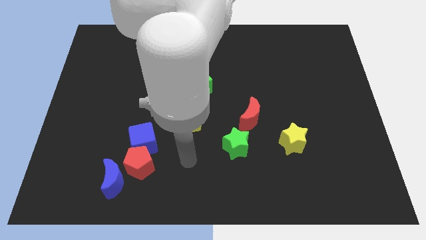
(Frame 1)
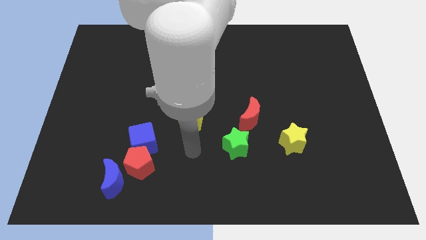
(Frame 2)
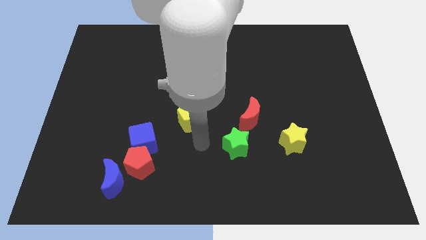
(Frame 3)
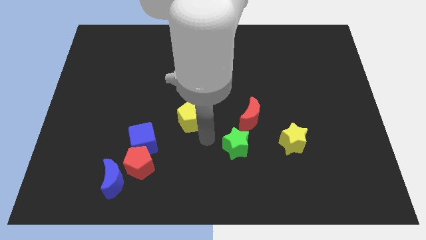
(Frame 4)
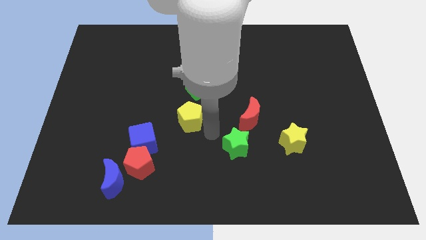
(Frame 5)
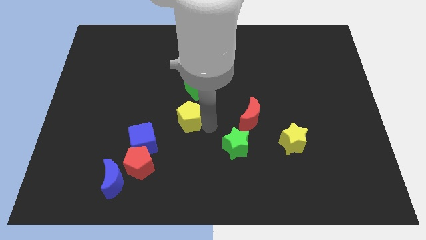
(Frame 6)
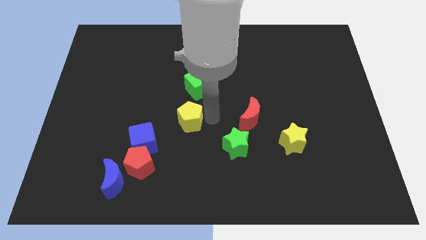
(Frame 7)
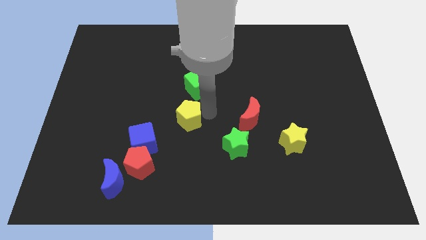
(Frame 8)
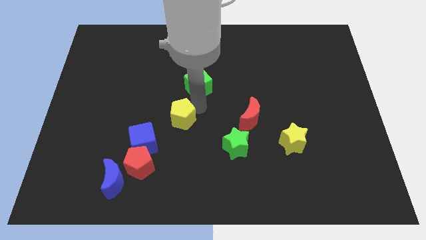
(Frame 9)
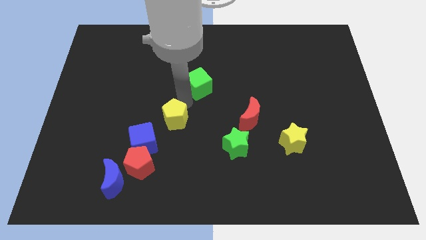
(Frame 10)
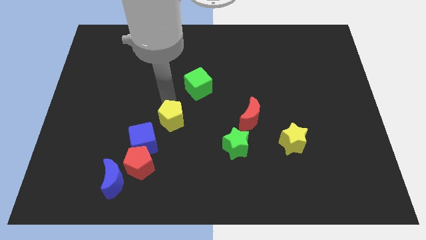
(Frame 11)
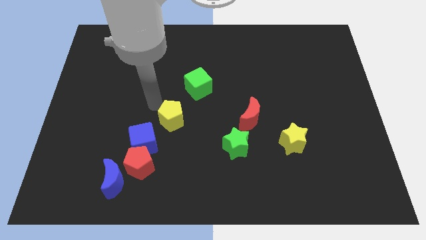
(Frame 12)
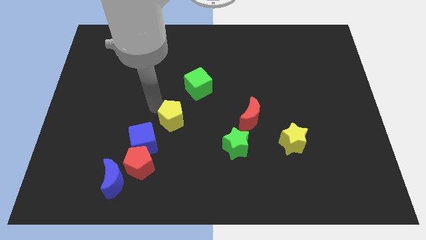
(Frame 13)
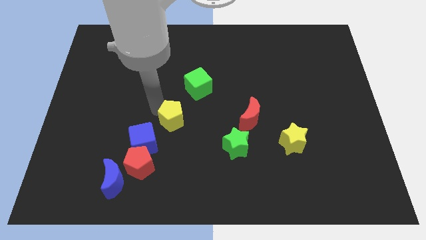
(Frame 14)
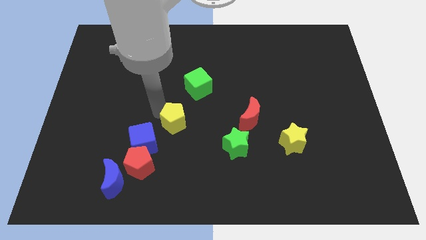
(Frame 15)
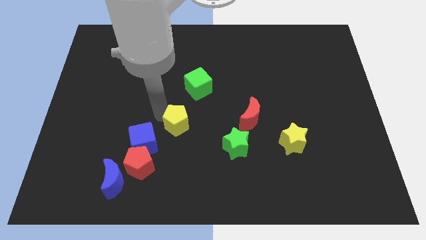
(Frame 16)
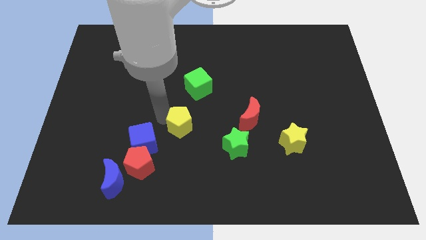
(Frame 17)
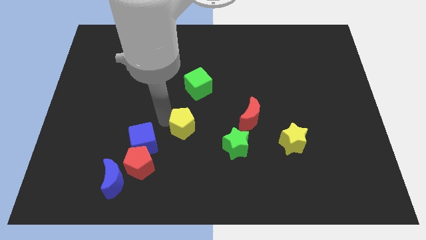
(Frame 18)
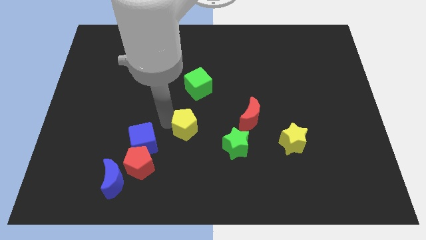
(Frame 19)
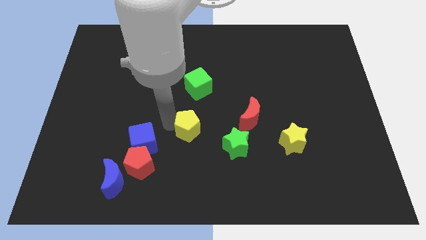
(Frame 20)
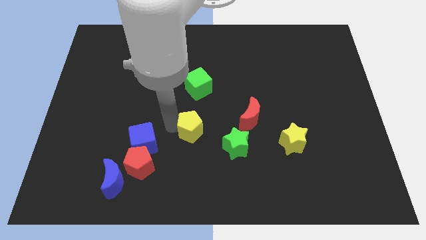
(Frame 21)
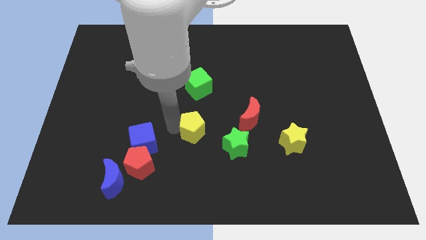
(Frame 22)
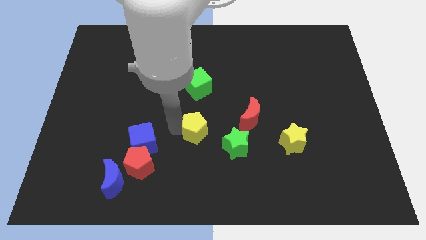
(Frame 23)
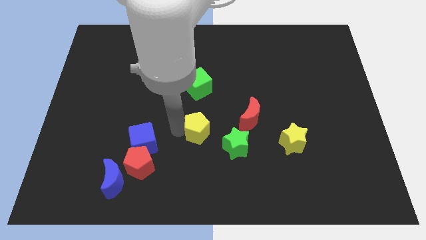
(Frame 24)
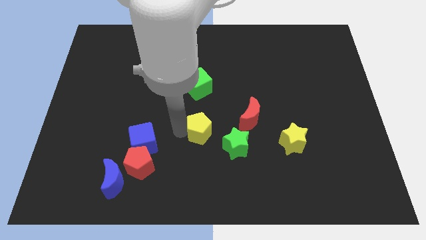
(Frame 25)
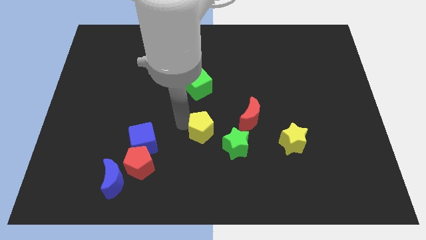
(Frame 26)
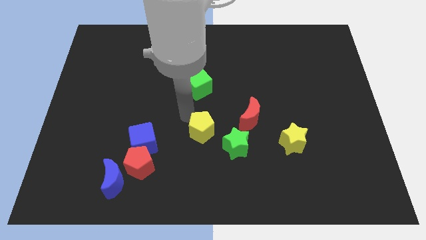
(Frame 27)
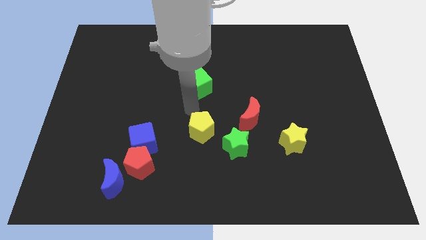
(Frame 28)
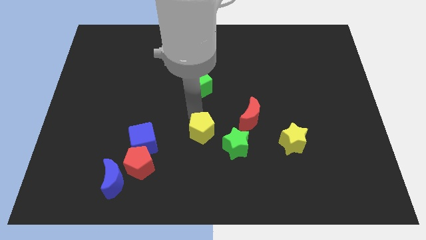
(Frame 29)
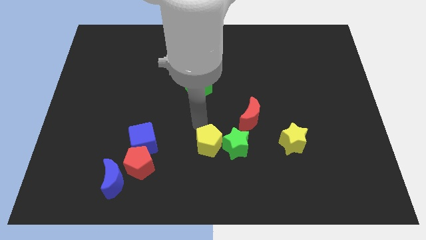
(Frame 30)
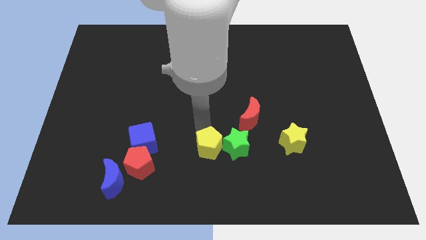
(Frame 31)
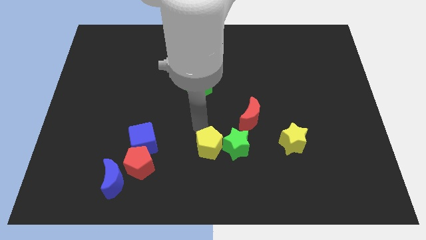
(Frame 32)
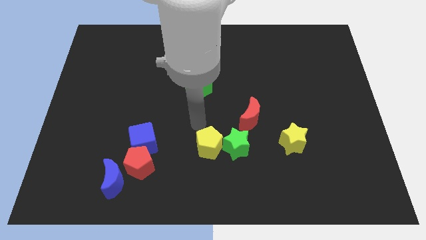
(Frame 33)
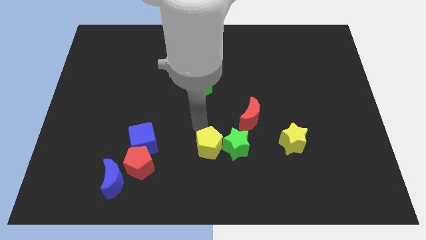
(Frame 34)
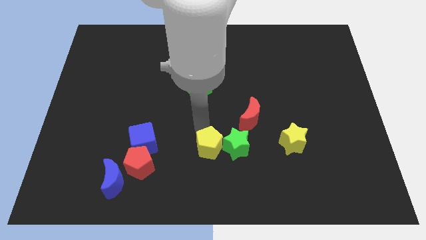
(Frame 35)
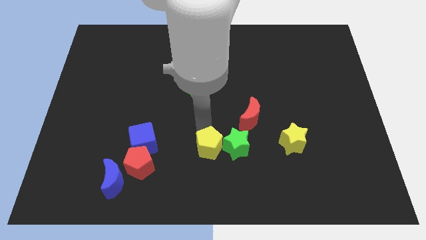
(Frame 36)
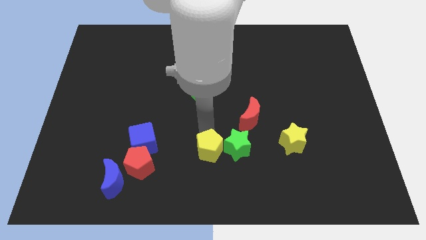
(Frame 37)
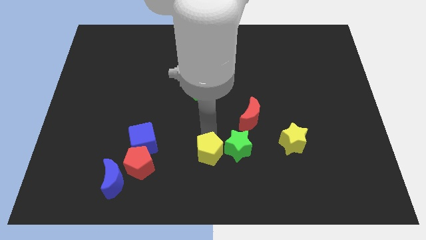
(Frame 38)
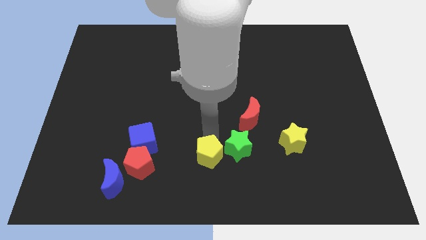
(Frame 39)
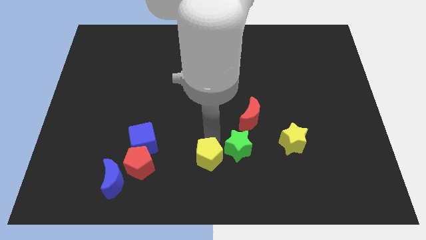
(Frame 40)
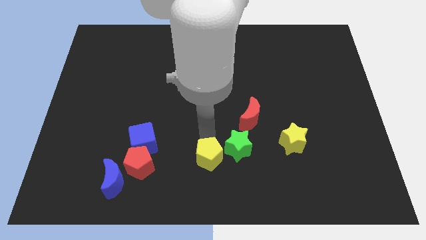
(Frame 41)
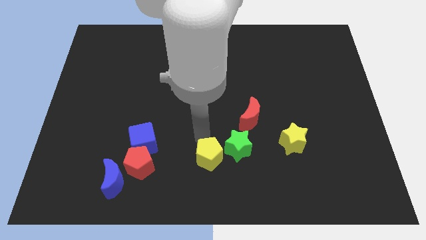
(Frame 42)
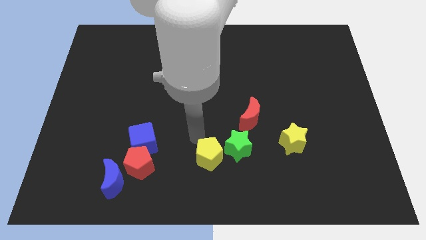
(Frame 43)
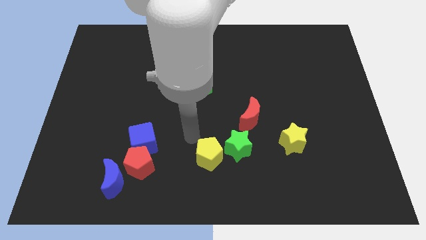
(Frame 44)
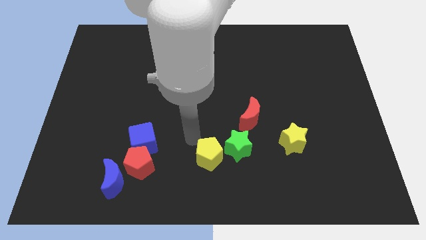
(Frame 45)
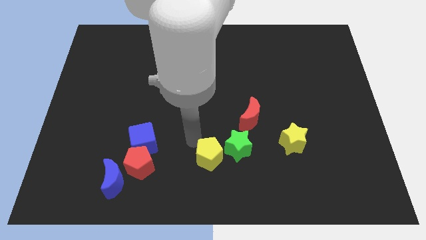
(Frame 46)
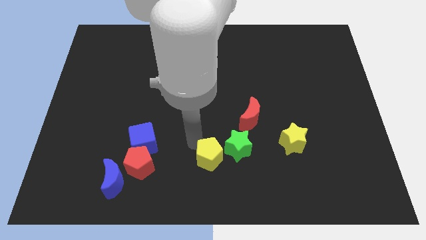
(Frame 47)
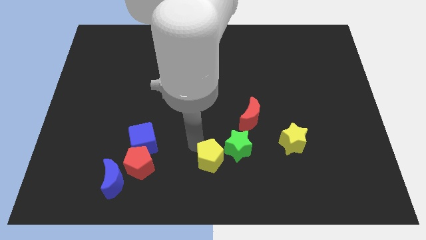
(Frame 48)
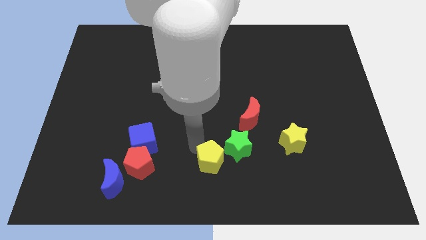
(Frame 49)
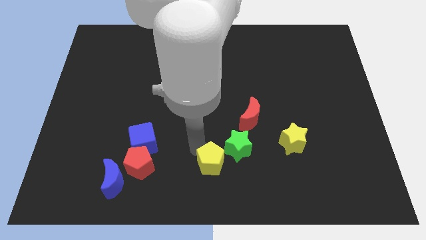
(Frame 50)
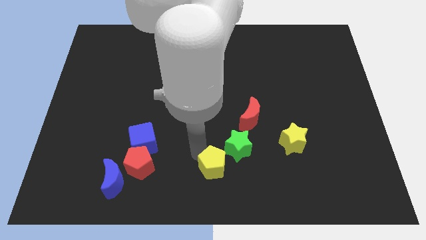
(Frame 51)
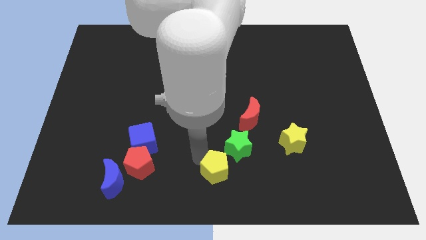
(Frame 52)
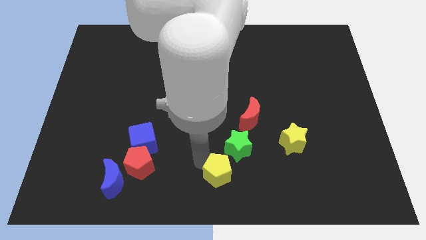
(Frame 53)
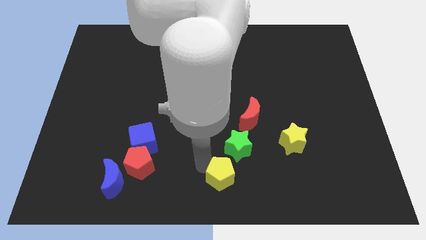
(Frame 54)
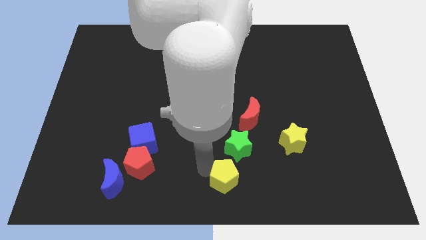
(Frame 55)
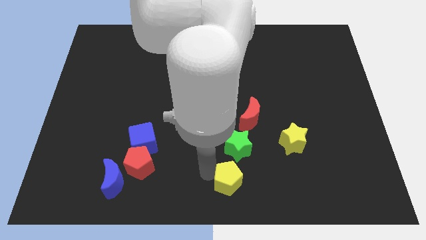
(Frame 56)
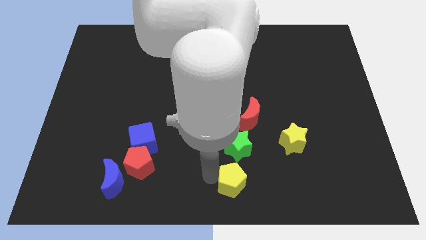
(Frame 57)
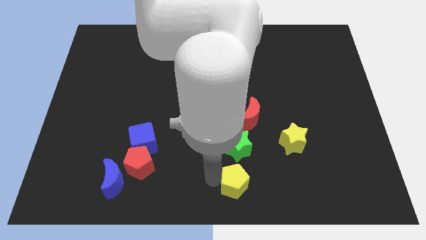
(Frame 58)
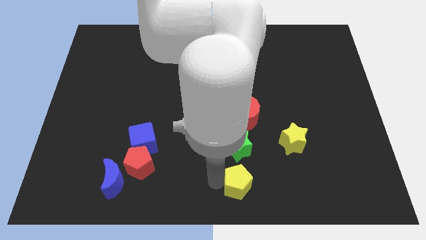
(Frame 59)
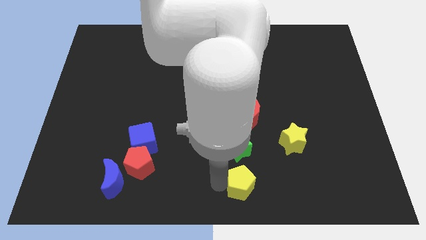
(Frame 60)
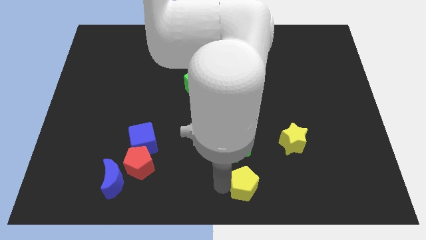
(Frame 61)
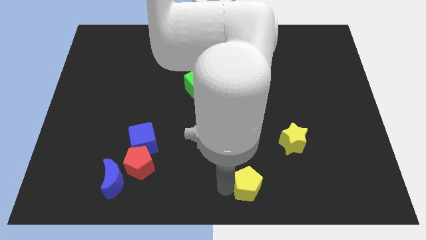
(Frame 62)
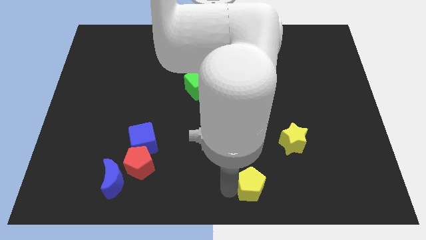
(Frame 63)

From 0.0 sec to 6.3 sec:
put the yellow pentagon to the bottom right side of the green star

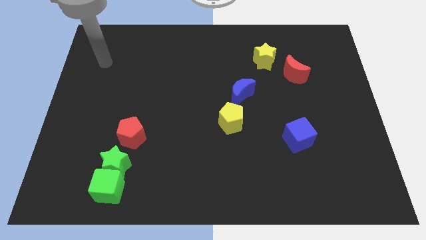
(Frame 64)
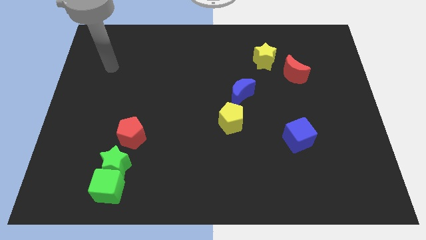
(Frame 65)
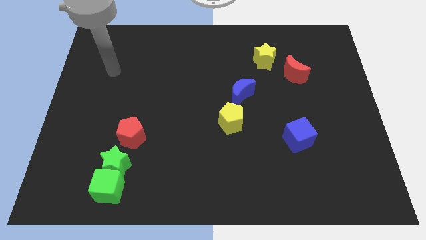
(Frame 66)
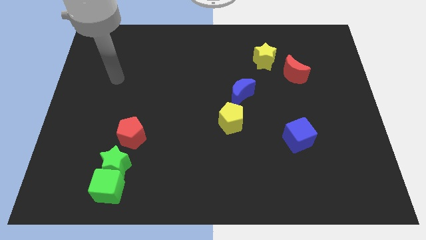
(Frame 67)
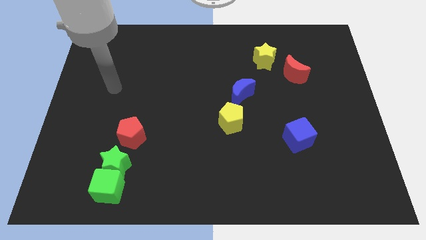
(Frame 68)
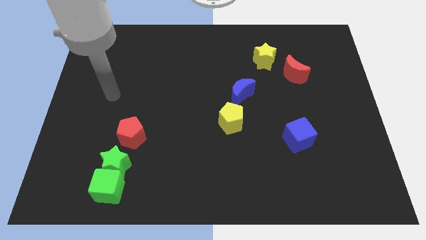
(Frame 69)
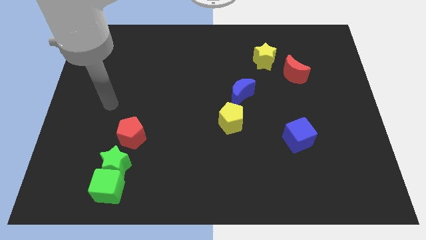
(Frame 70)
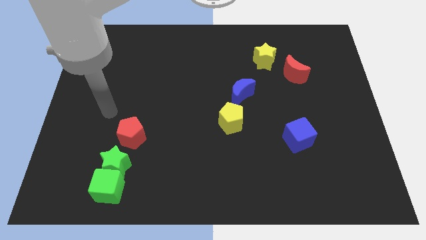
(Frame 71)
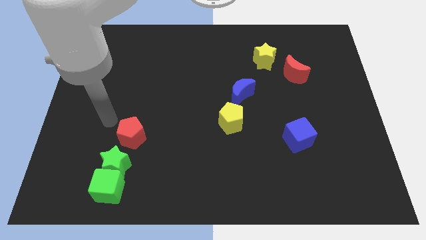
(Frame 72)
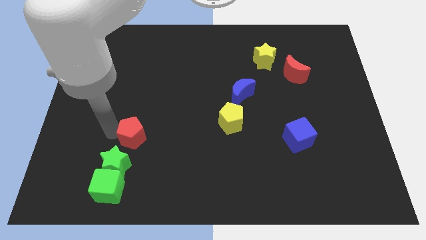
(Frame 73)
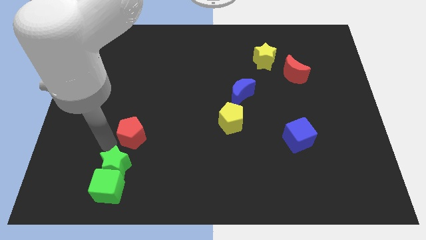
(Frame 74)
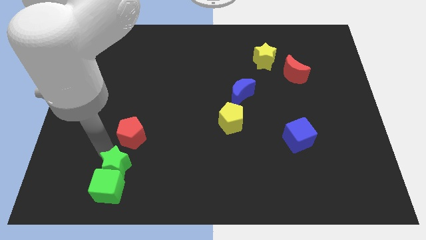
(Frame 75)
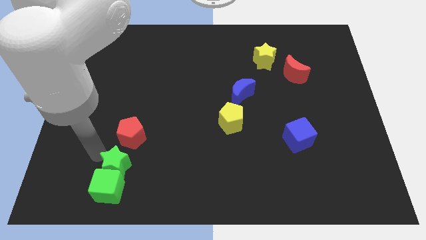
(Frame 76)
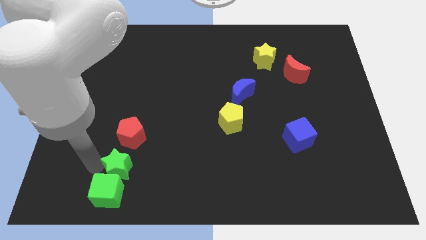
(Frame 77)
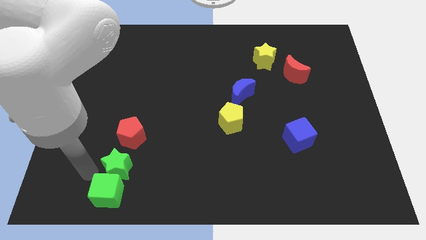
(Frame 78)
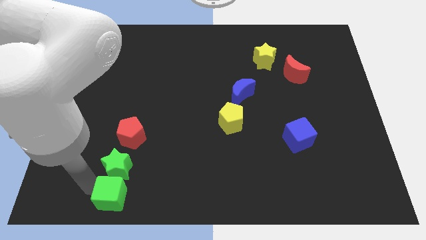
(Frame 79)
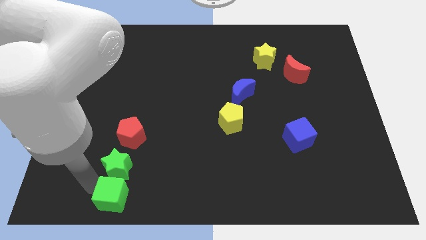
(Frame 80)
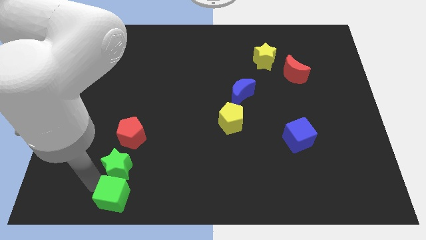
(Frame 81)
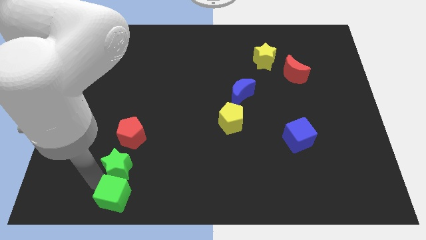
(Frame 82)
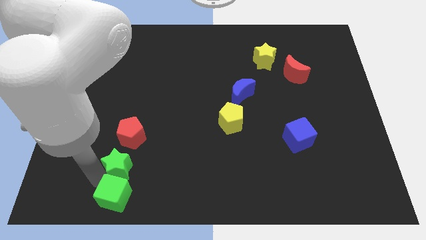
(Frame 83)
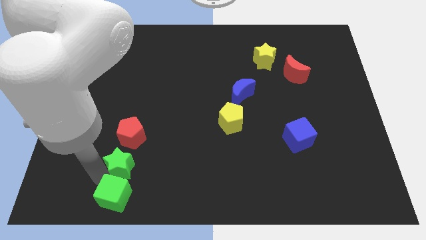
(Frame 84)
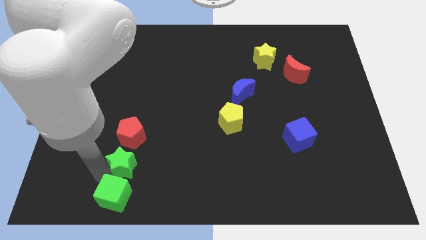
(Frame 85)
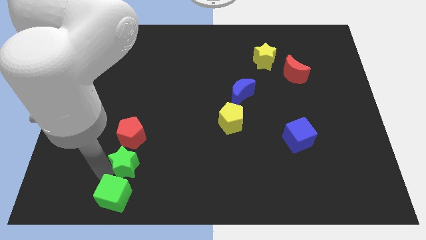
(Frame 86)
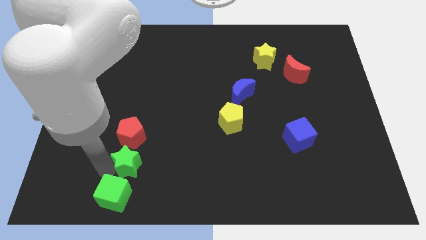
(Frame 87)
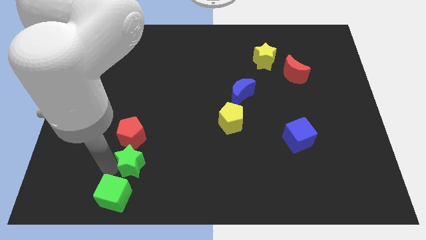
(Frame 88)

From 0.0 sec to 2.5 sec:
put the green star to the bottom right side of the red pentagon
